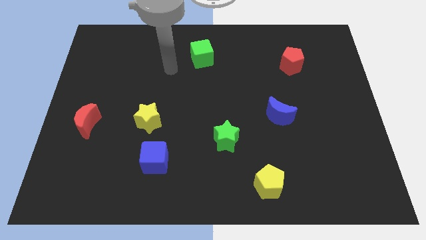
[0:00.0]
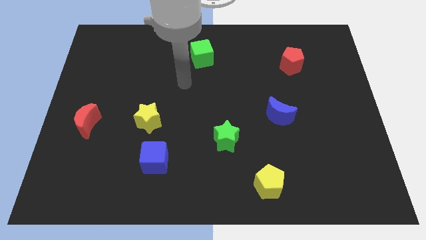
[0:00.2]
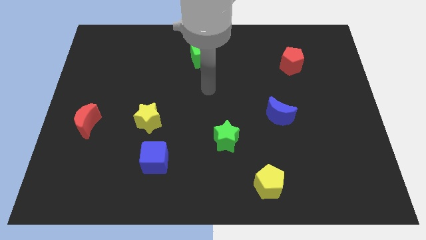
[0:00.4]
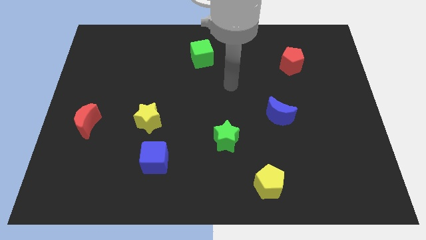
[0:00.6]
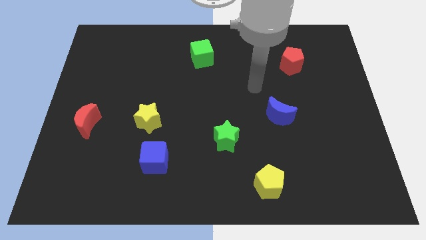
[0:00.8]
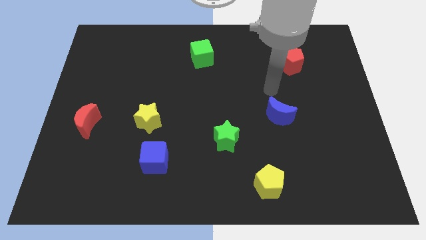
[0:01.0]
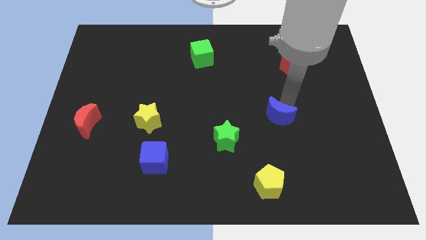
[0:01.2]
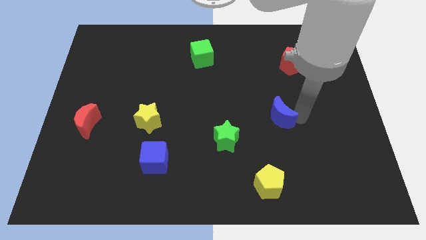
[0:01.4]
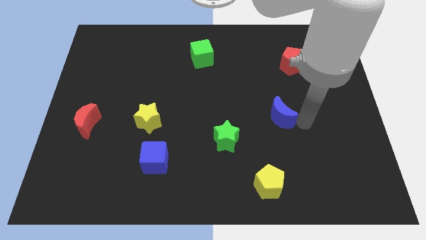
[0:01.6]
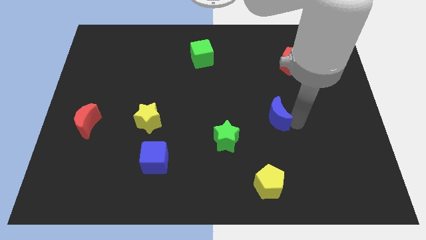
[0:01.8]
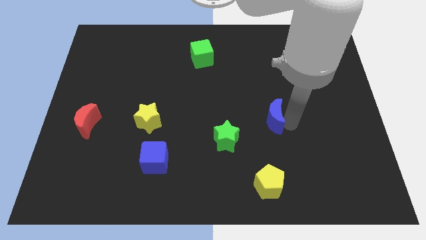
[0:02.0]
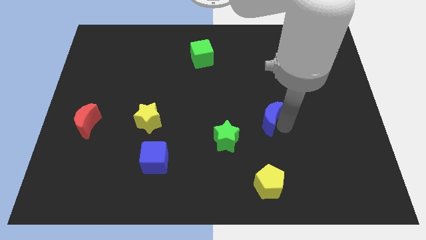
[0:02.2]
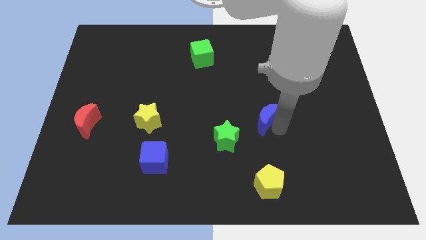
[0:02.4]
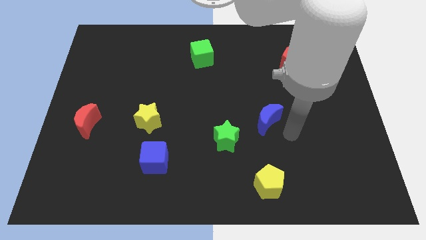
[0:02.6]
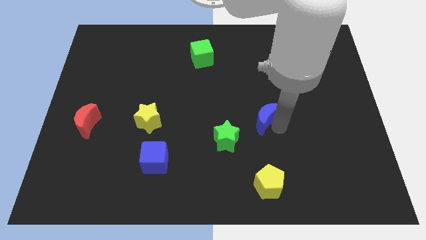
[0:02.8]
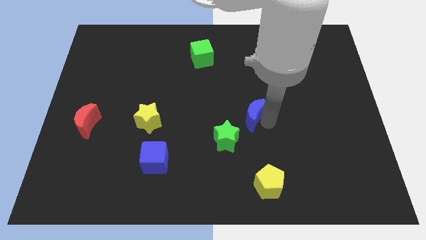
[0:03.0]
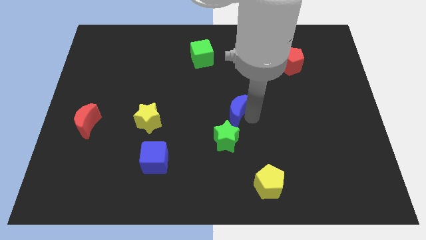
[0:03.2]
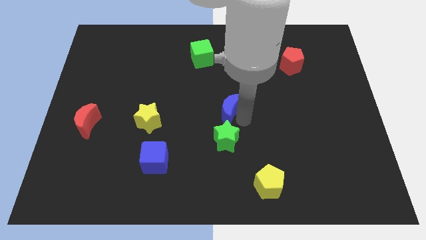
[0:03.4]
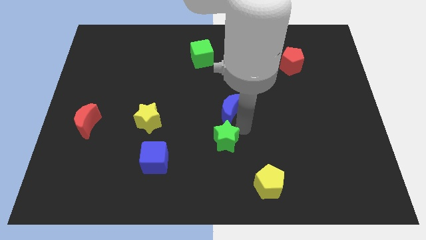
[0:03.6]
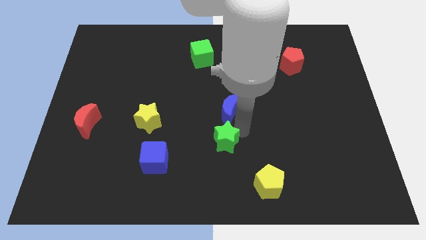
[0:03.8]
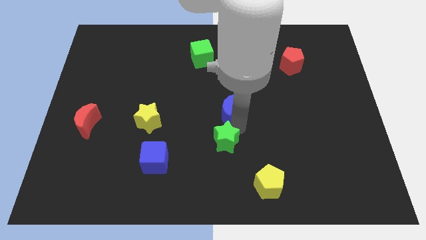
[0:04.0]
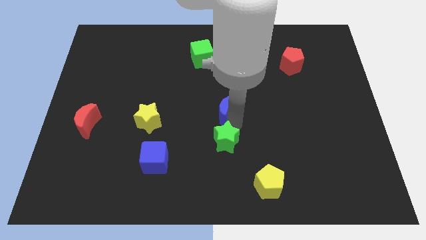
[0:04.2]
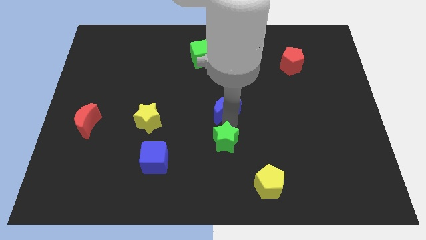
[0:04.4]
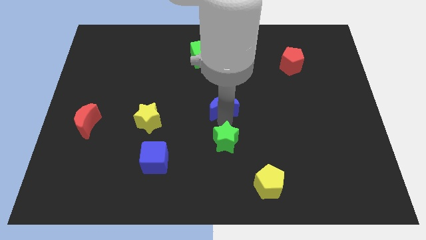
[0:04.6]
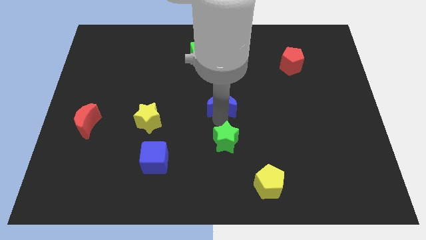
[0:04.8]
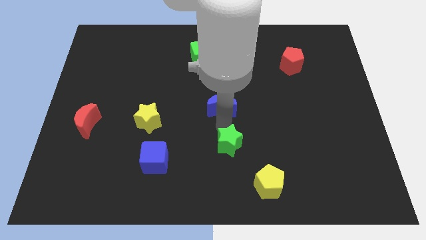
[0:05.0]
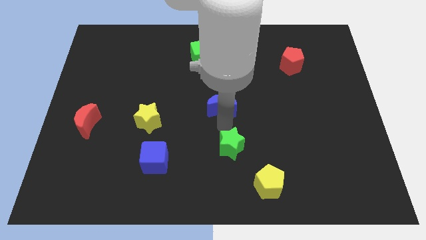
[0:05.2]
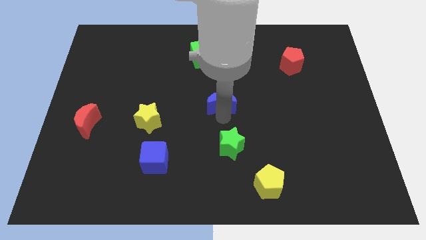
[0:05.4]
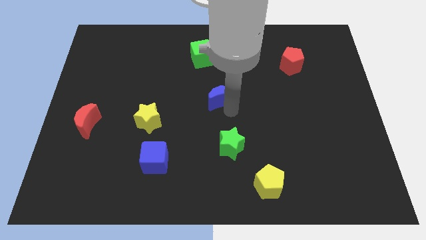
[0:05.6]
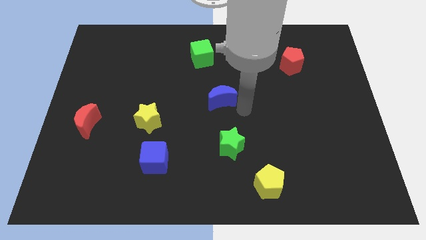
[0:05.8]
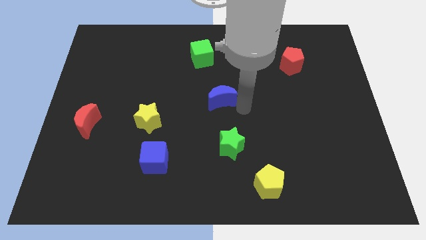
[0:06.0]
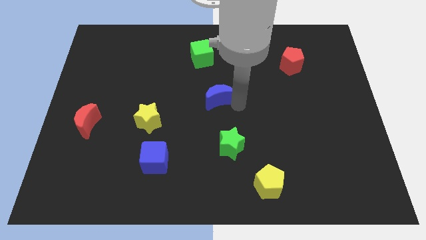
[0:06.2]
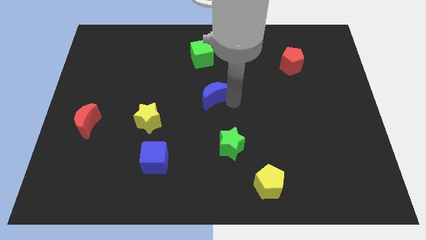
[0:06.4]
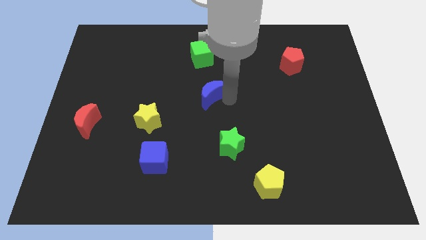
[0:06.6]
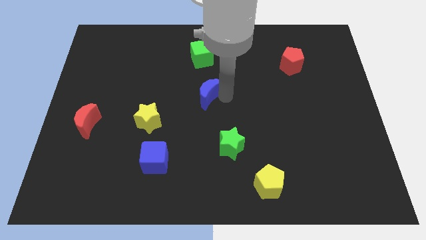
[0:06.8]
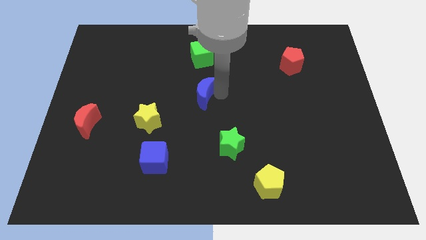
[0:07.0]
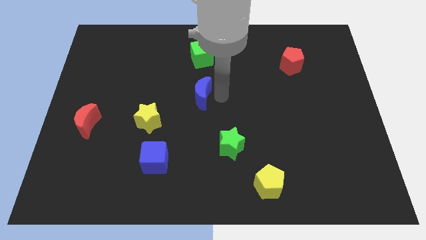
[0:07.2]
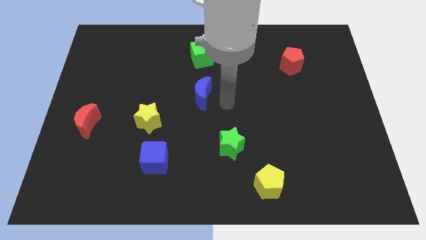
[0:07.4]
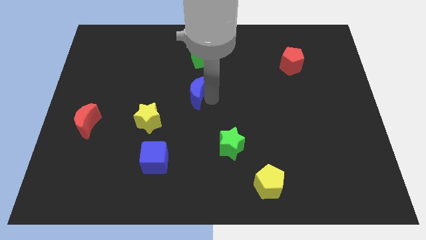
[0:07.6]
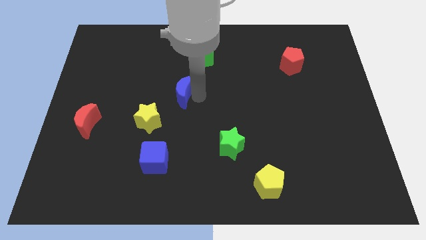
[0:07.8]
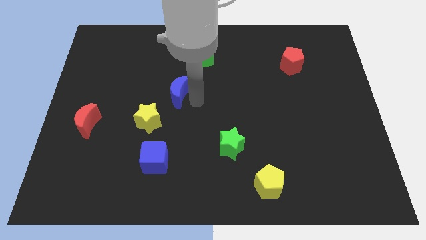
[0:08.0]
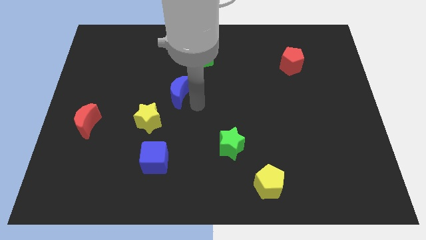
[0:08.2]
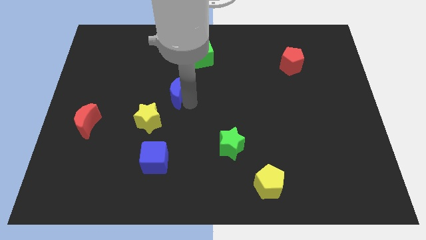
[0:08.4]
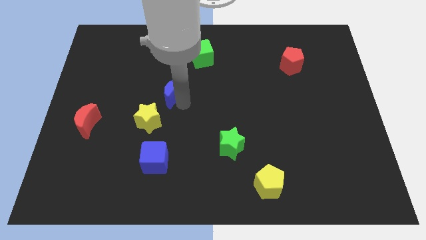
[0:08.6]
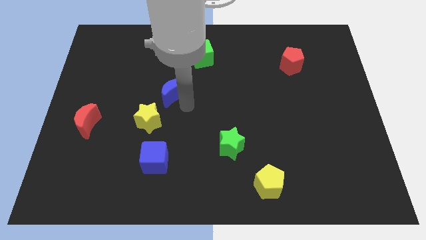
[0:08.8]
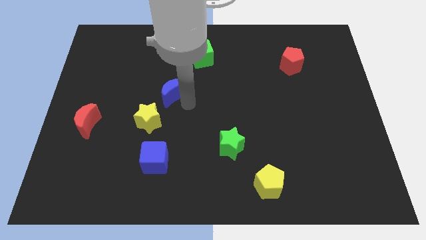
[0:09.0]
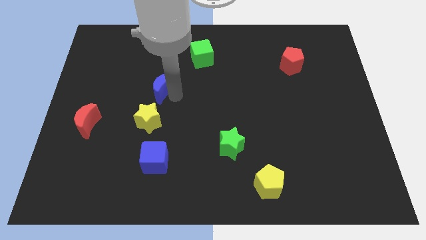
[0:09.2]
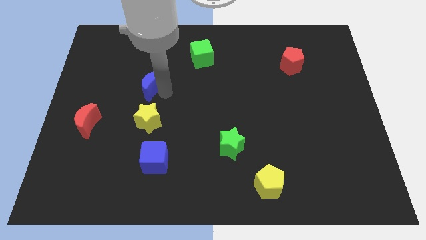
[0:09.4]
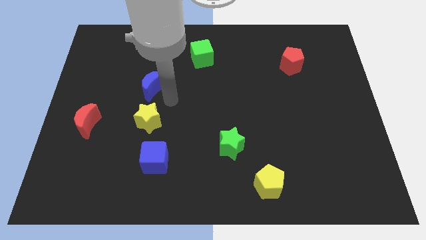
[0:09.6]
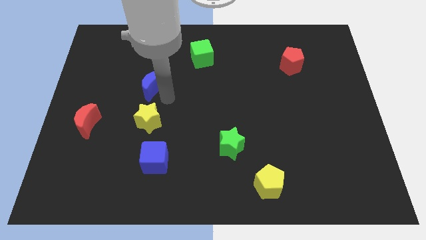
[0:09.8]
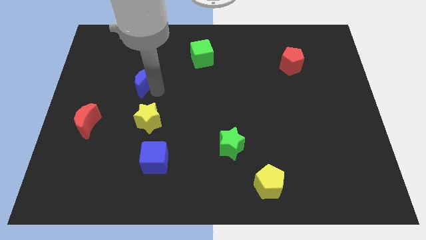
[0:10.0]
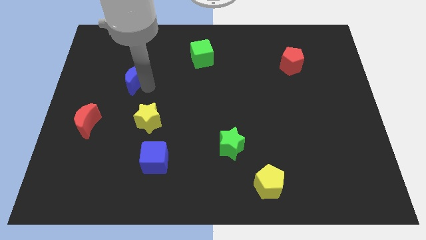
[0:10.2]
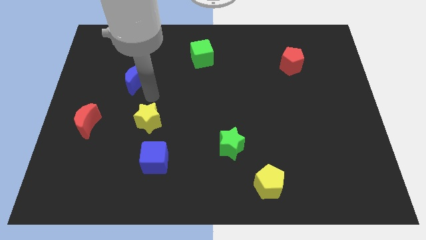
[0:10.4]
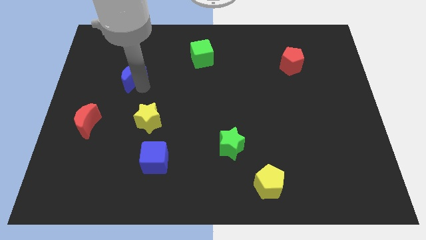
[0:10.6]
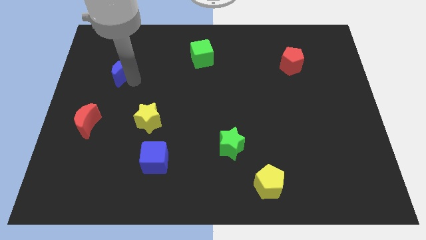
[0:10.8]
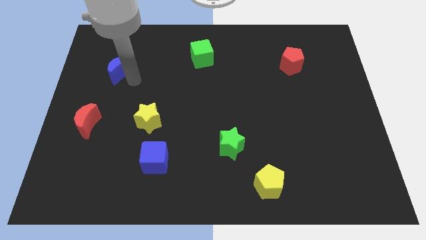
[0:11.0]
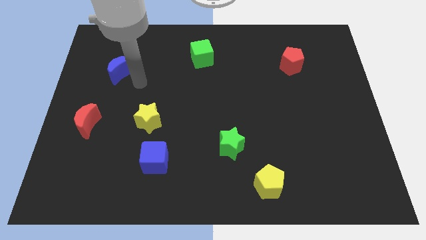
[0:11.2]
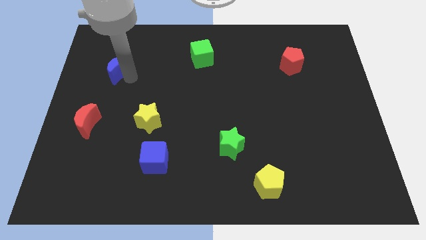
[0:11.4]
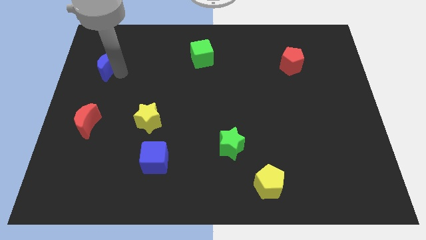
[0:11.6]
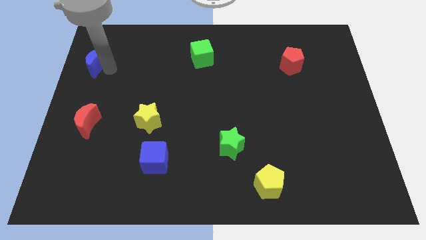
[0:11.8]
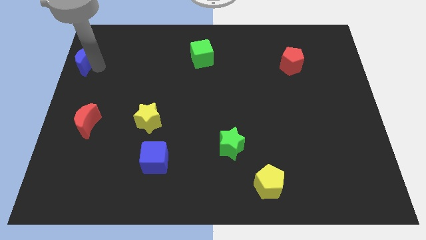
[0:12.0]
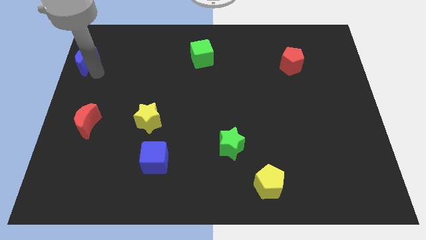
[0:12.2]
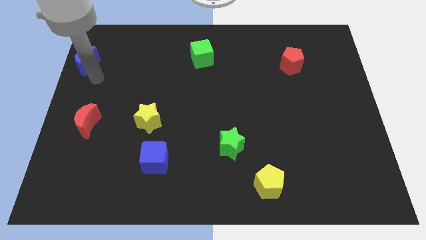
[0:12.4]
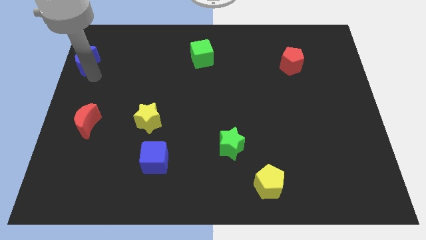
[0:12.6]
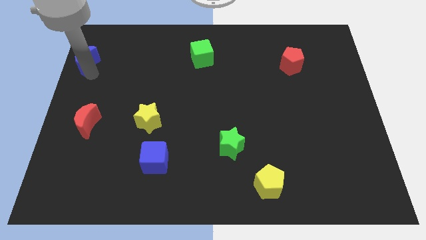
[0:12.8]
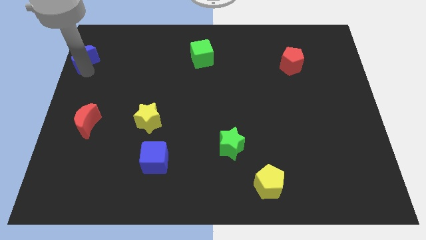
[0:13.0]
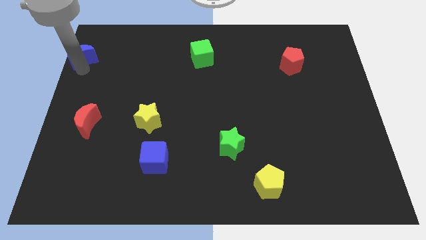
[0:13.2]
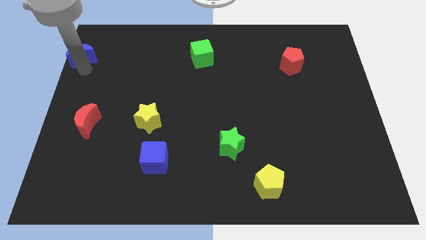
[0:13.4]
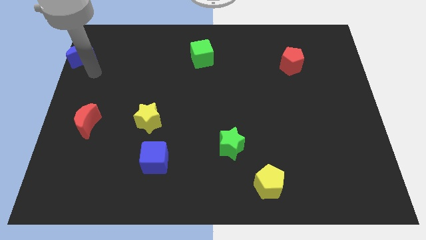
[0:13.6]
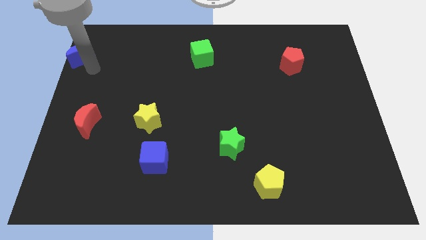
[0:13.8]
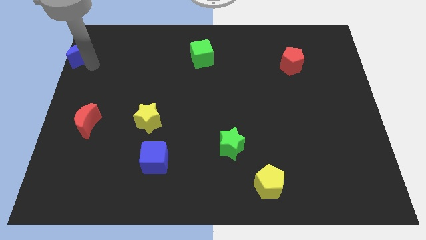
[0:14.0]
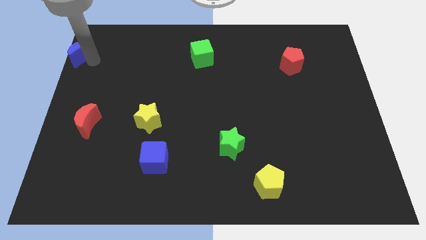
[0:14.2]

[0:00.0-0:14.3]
move the blue moon to the top left
